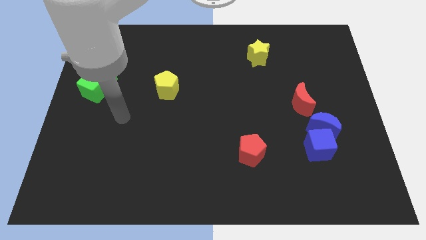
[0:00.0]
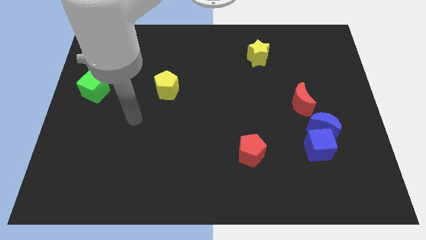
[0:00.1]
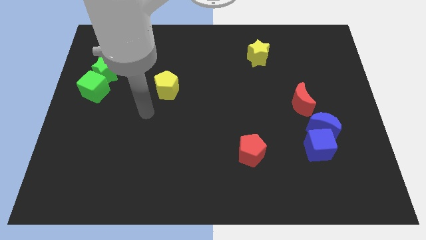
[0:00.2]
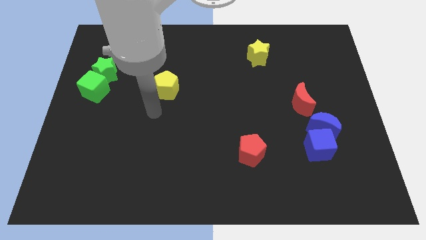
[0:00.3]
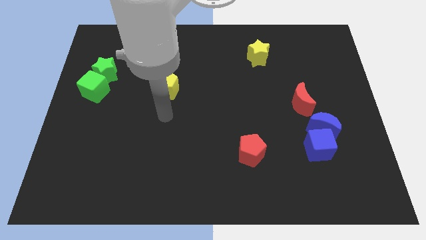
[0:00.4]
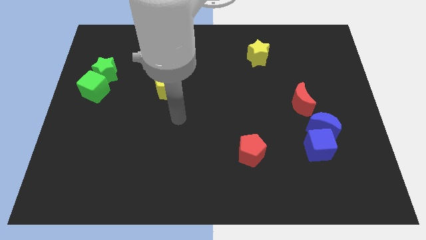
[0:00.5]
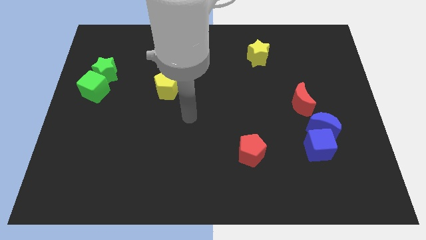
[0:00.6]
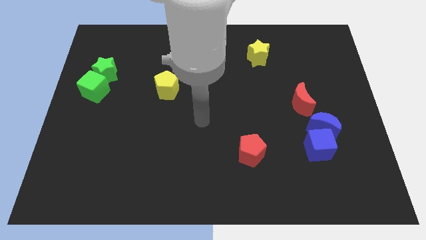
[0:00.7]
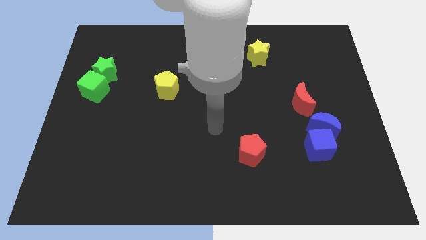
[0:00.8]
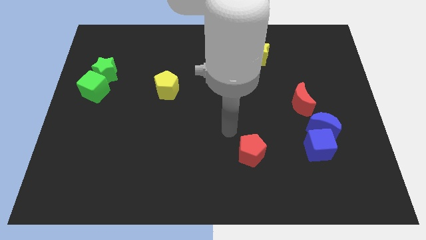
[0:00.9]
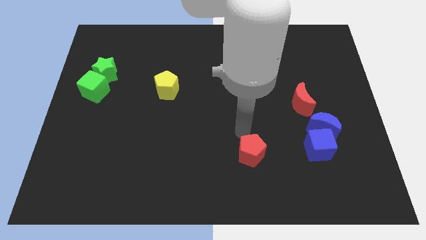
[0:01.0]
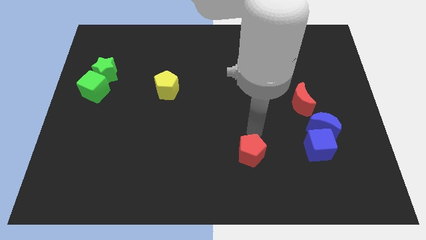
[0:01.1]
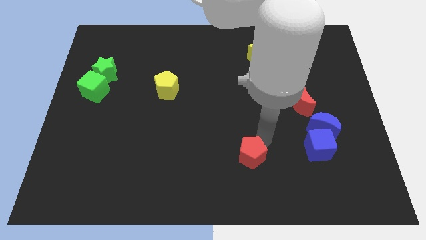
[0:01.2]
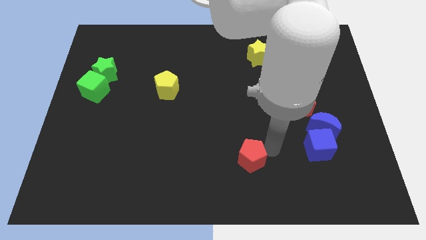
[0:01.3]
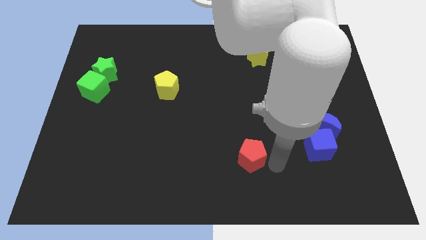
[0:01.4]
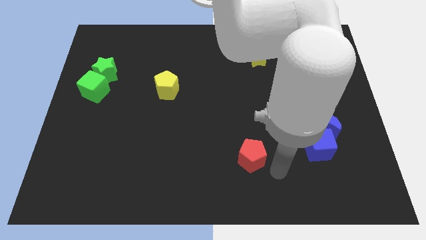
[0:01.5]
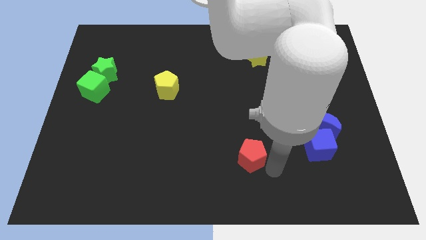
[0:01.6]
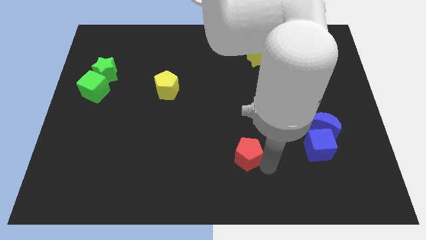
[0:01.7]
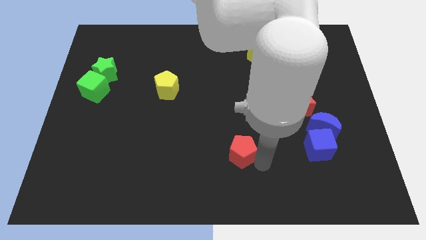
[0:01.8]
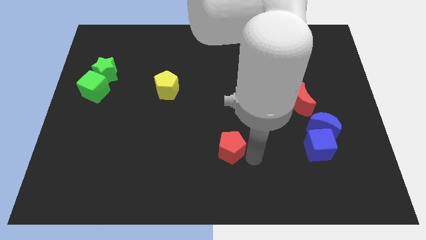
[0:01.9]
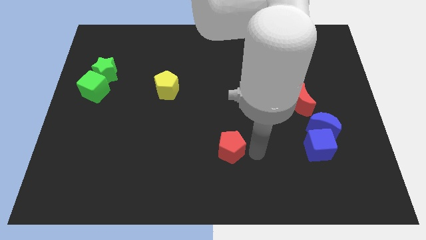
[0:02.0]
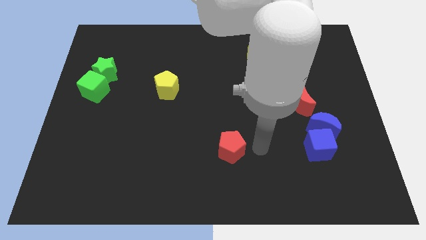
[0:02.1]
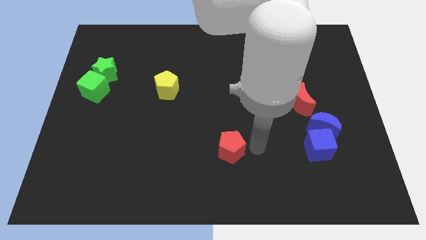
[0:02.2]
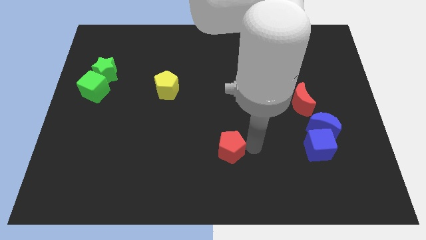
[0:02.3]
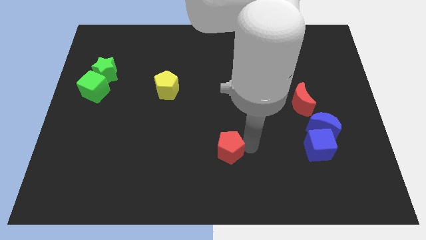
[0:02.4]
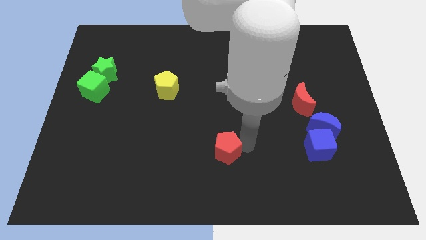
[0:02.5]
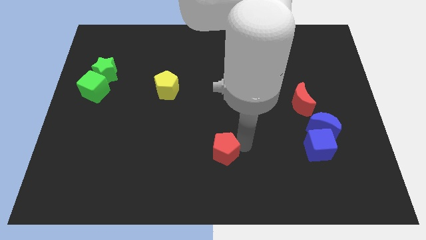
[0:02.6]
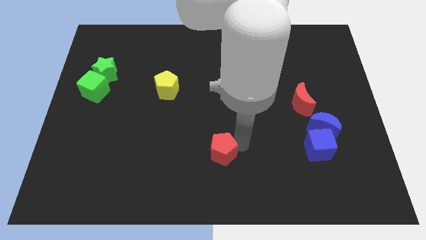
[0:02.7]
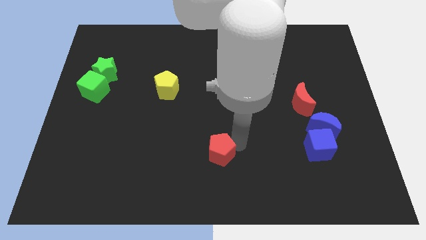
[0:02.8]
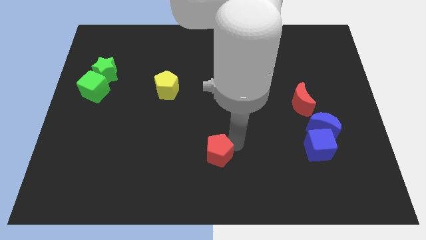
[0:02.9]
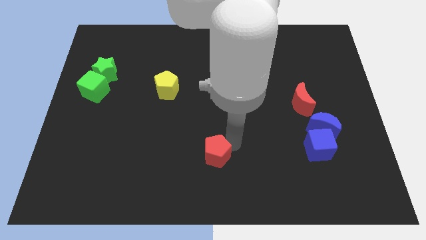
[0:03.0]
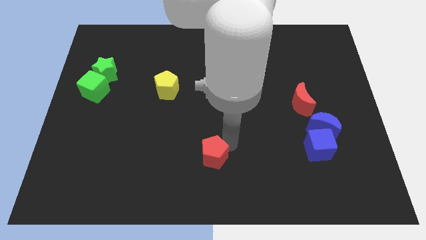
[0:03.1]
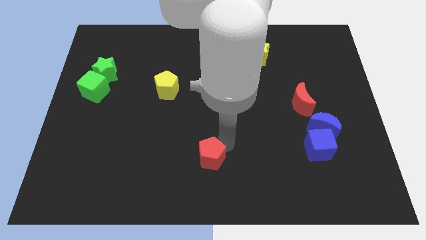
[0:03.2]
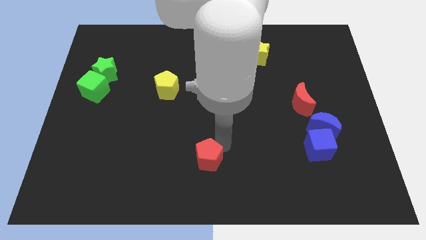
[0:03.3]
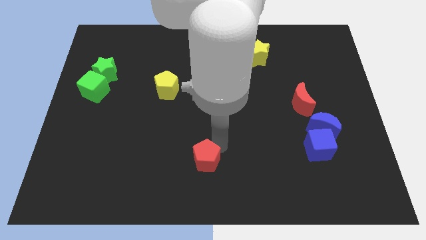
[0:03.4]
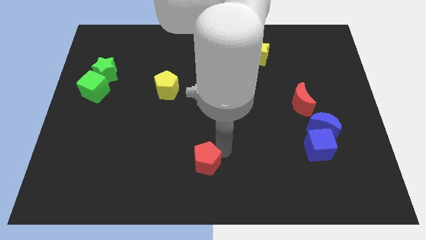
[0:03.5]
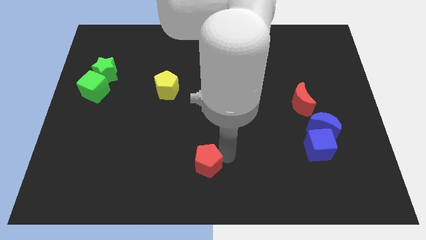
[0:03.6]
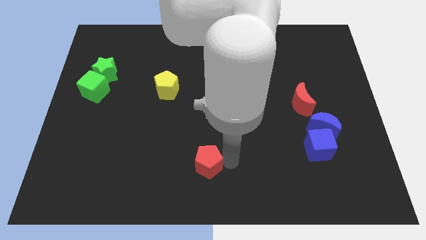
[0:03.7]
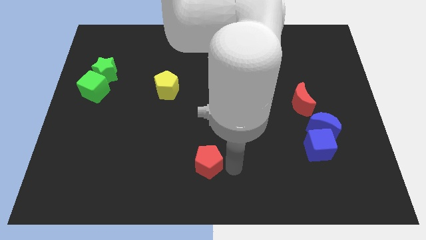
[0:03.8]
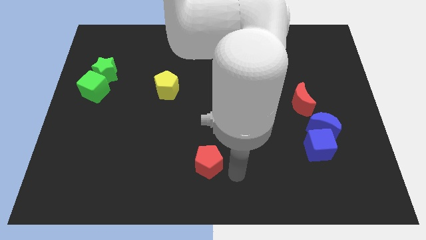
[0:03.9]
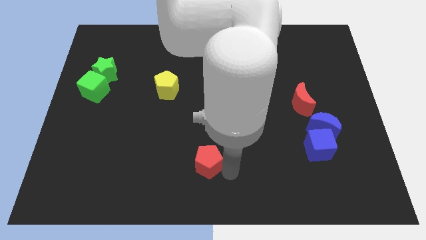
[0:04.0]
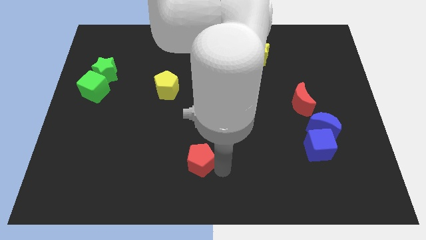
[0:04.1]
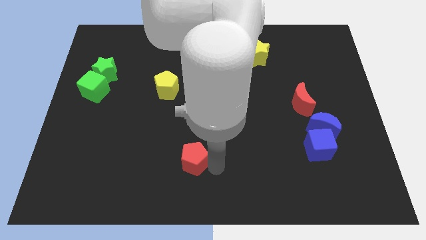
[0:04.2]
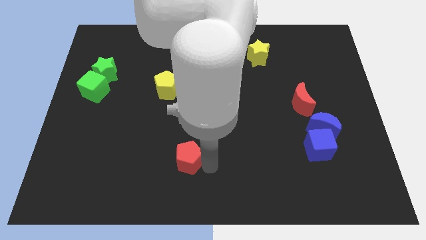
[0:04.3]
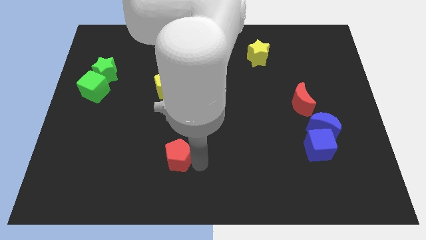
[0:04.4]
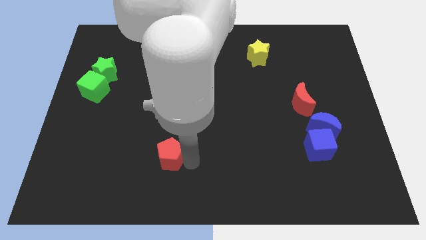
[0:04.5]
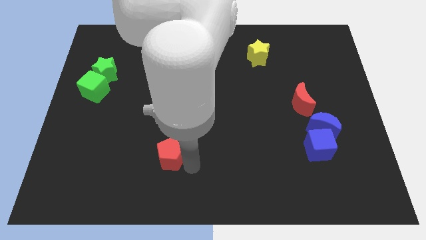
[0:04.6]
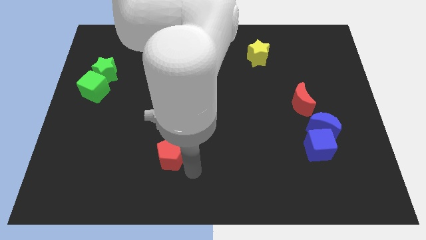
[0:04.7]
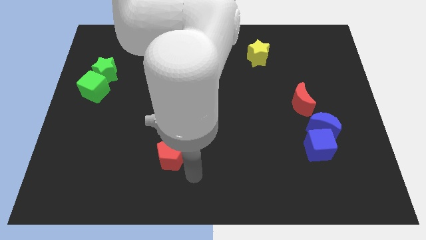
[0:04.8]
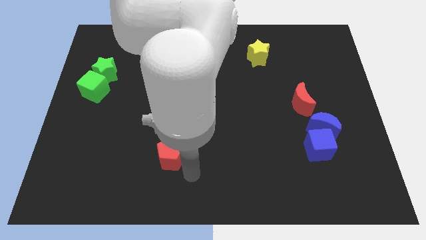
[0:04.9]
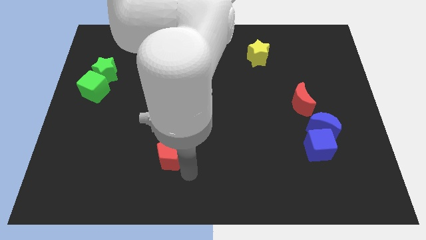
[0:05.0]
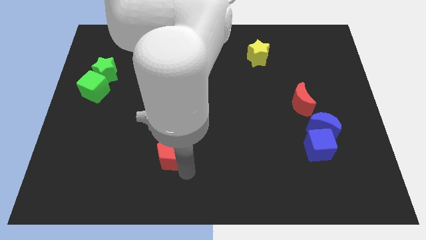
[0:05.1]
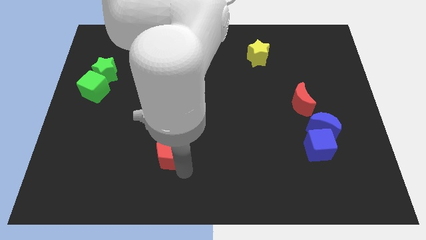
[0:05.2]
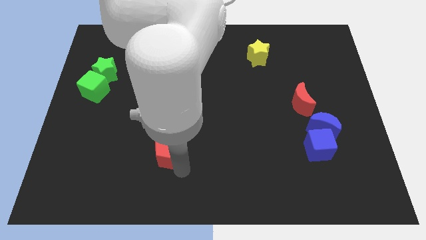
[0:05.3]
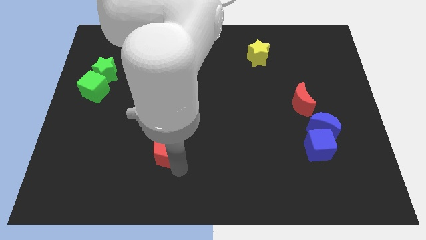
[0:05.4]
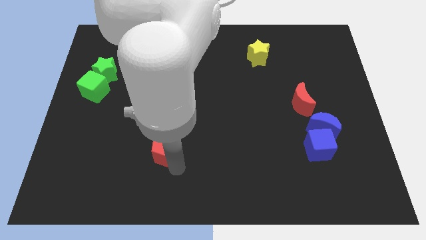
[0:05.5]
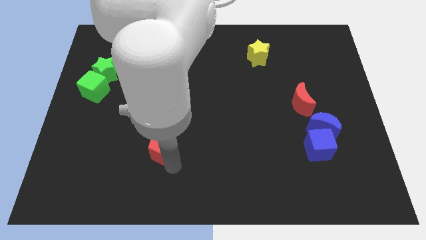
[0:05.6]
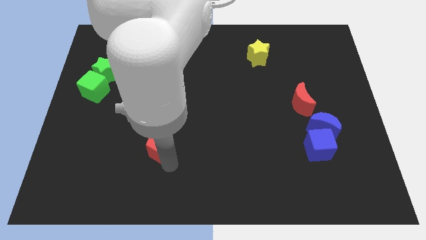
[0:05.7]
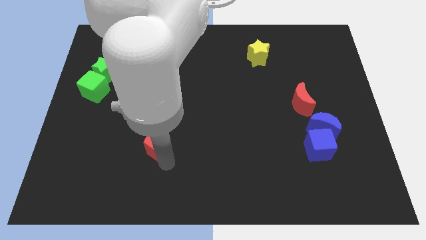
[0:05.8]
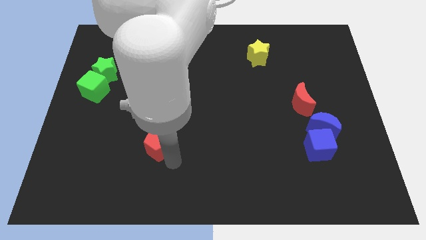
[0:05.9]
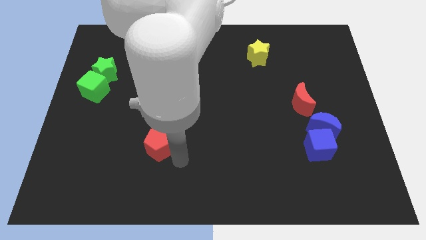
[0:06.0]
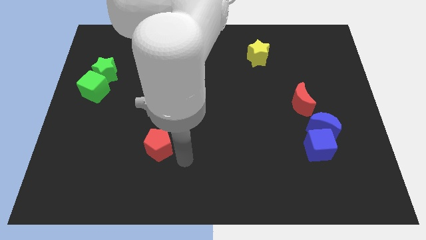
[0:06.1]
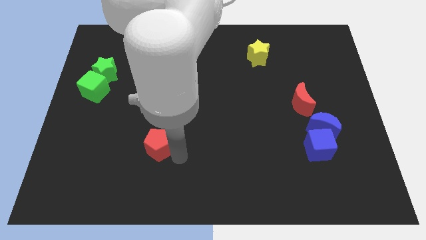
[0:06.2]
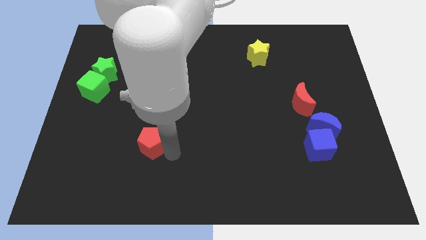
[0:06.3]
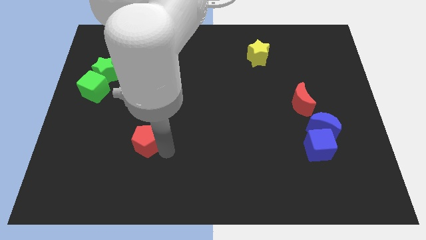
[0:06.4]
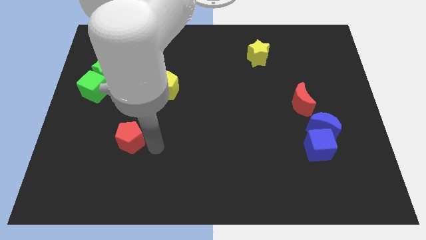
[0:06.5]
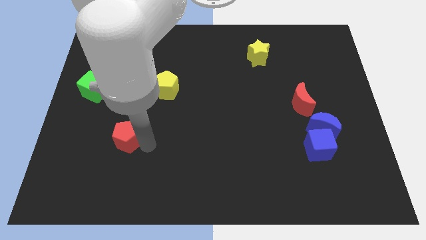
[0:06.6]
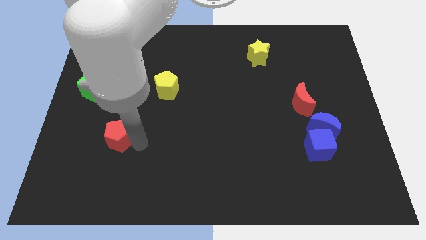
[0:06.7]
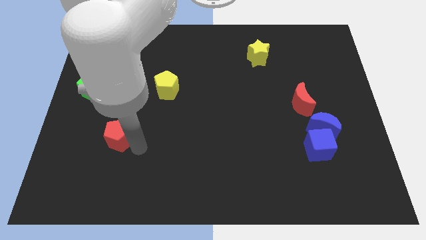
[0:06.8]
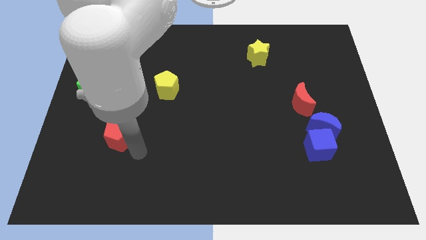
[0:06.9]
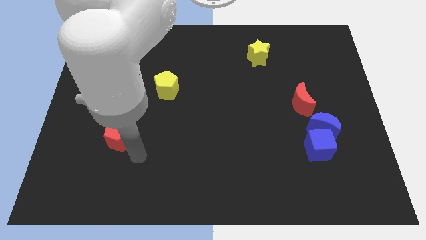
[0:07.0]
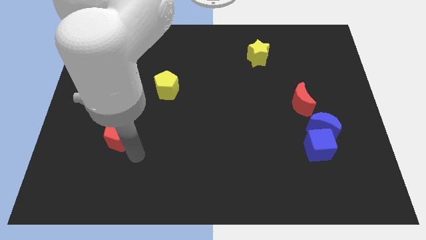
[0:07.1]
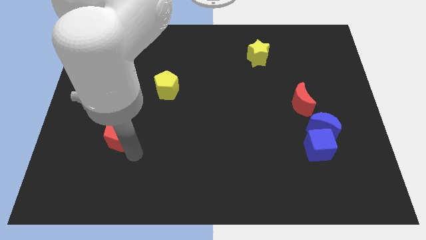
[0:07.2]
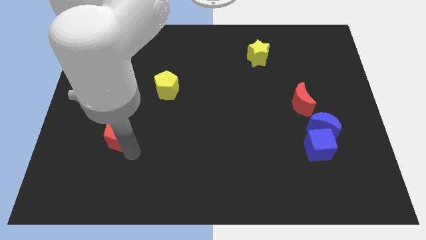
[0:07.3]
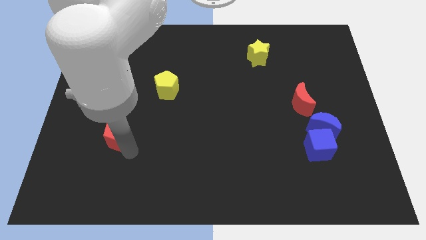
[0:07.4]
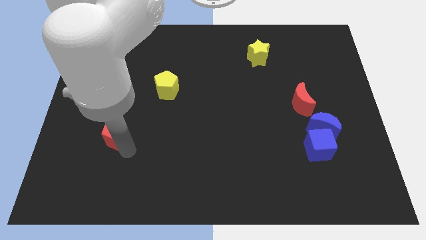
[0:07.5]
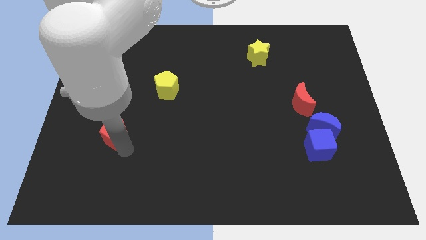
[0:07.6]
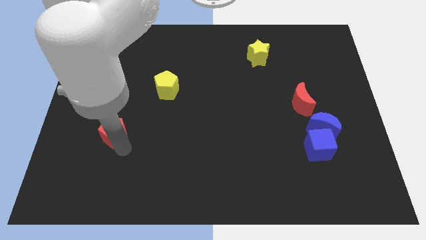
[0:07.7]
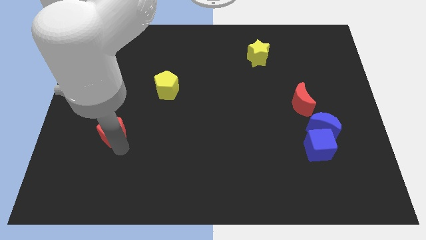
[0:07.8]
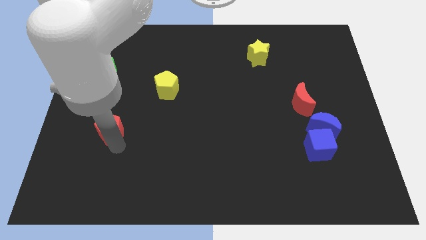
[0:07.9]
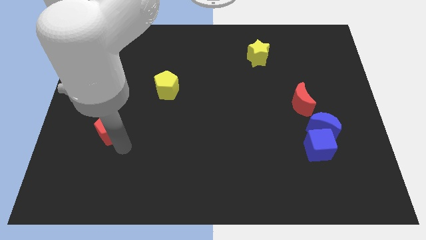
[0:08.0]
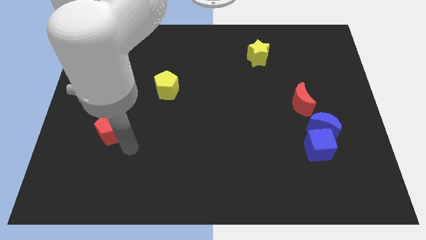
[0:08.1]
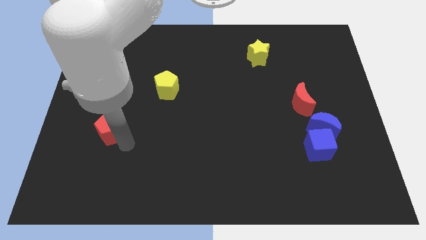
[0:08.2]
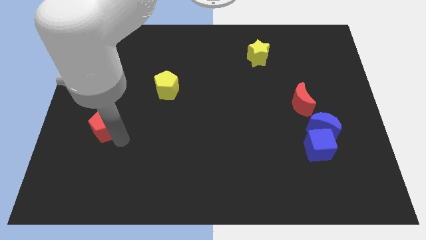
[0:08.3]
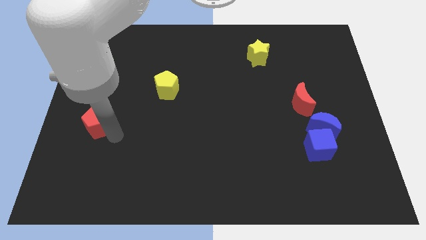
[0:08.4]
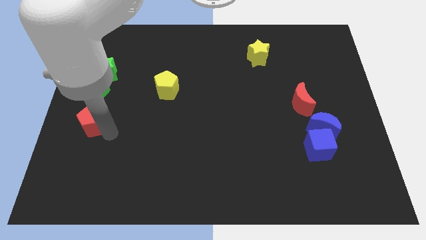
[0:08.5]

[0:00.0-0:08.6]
slide the red pentagon to the left side of the board
